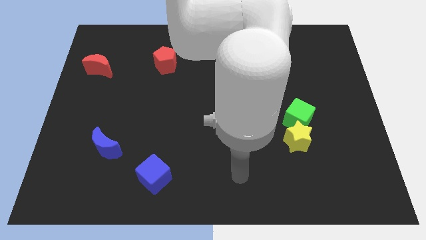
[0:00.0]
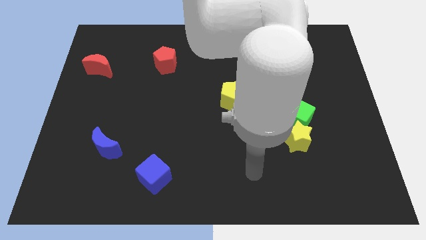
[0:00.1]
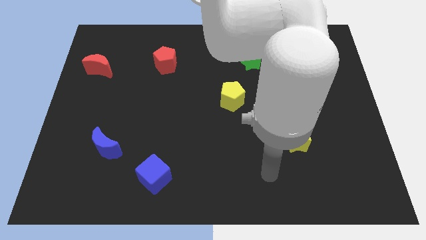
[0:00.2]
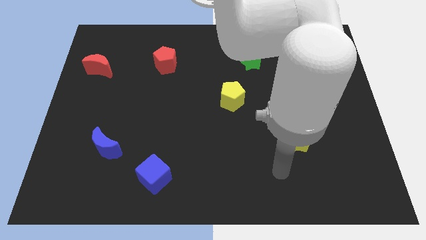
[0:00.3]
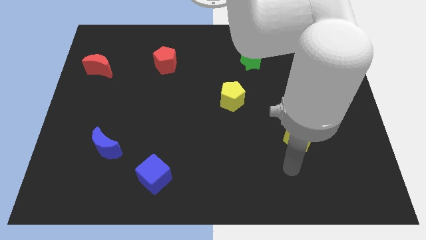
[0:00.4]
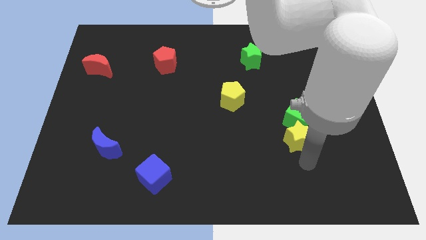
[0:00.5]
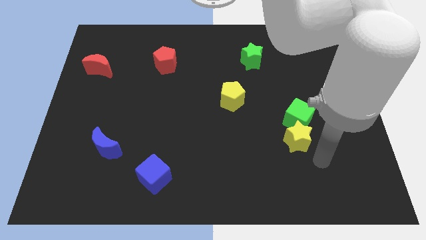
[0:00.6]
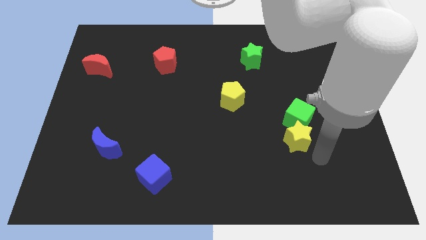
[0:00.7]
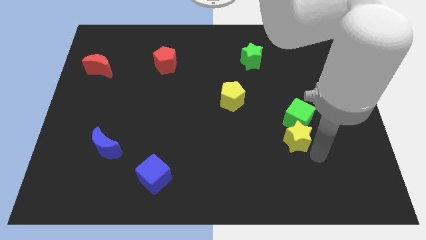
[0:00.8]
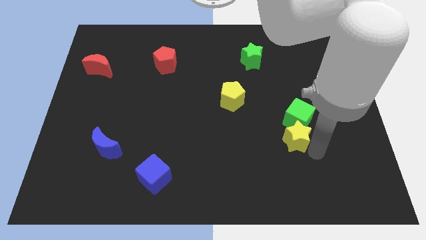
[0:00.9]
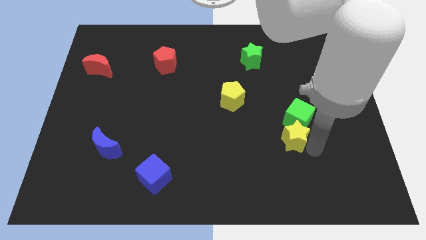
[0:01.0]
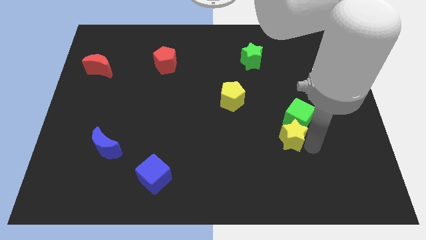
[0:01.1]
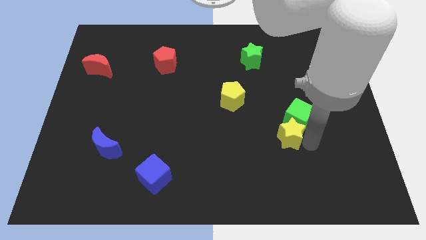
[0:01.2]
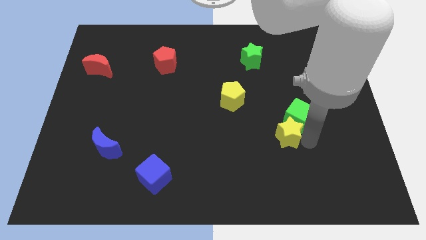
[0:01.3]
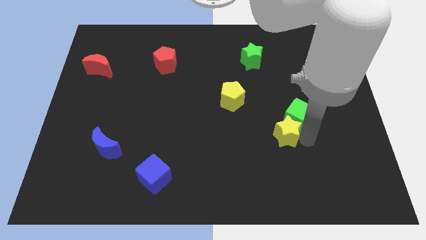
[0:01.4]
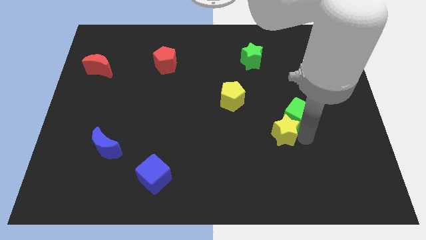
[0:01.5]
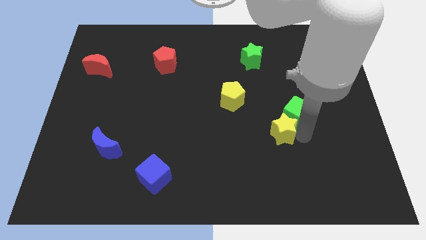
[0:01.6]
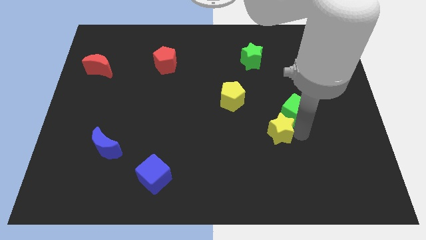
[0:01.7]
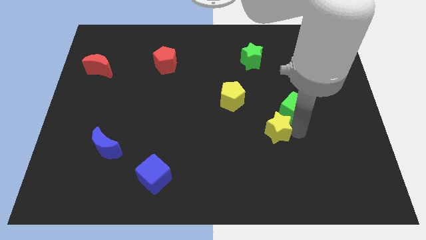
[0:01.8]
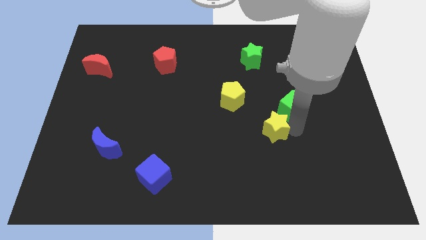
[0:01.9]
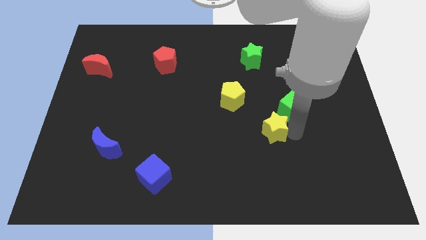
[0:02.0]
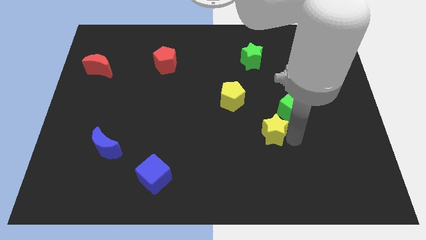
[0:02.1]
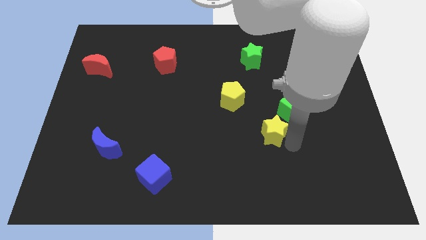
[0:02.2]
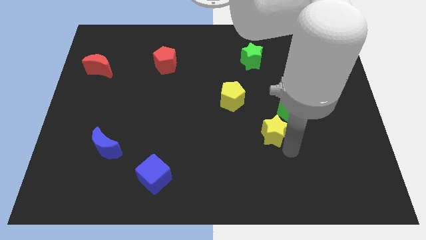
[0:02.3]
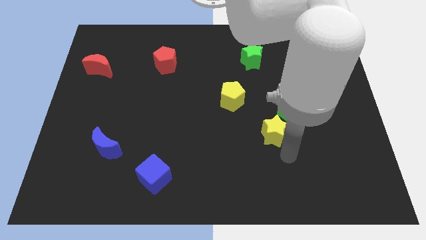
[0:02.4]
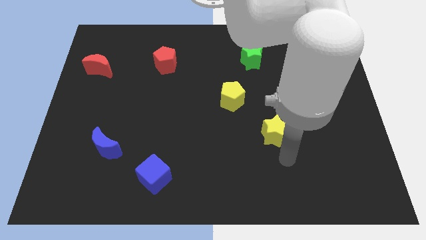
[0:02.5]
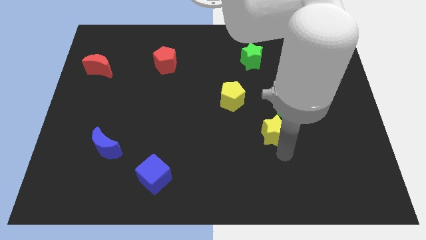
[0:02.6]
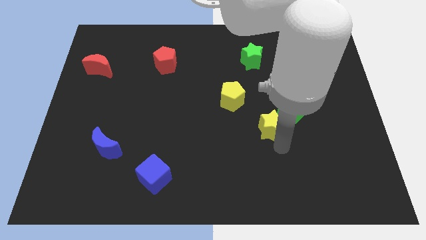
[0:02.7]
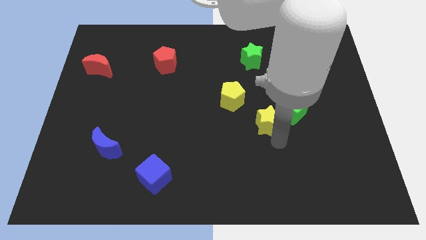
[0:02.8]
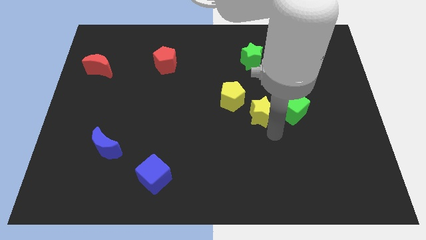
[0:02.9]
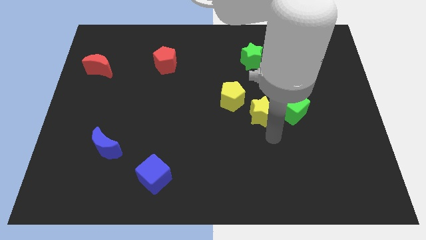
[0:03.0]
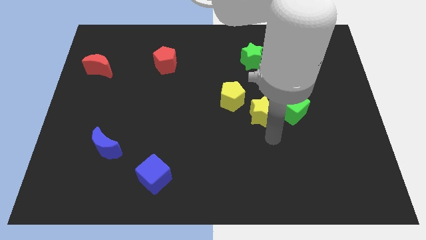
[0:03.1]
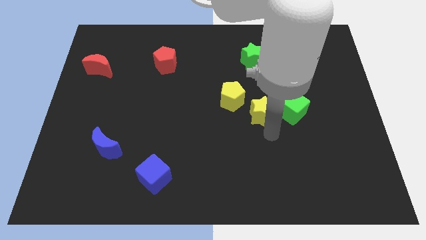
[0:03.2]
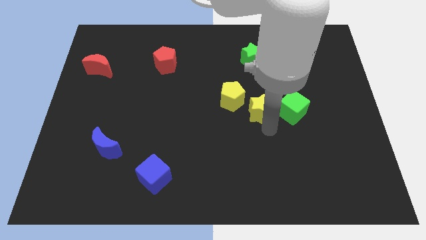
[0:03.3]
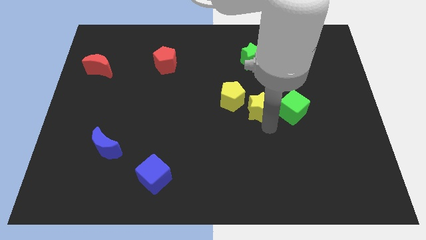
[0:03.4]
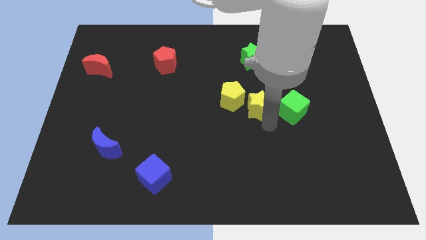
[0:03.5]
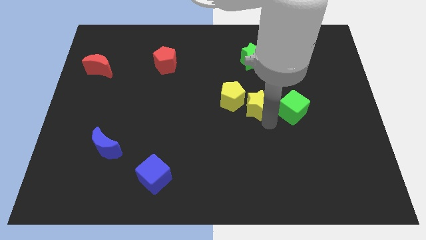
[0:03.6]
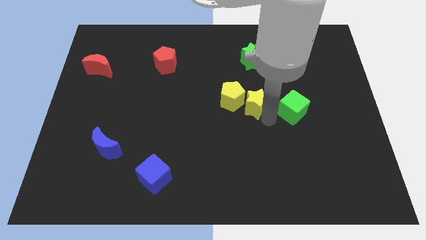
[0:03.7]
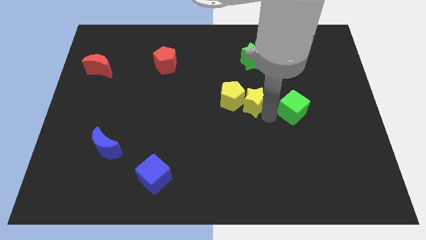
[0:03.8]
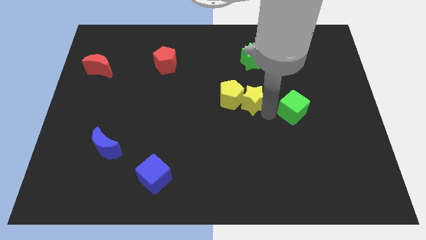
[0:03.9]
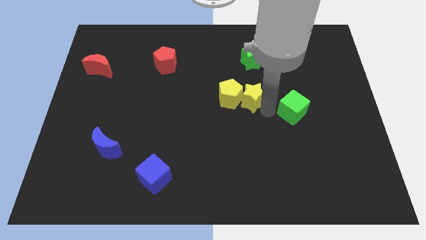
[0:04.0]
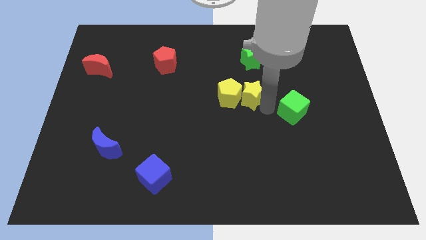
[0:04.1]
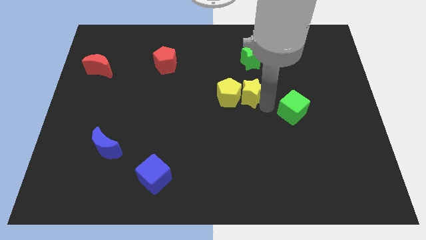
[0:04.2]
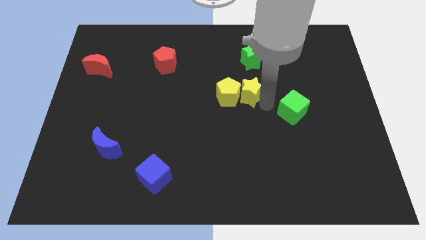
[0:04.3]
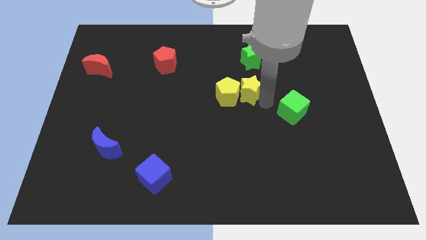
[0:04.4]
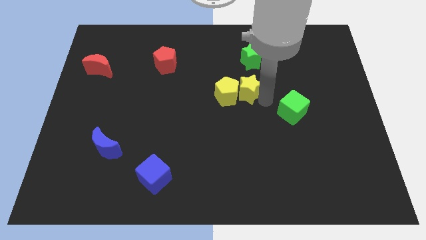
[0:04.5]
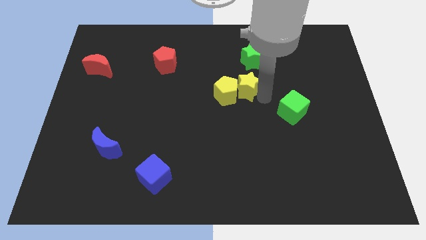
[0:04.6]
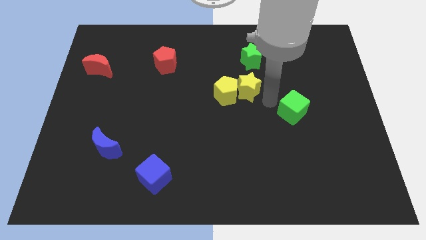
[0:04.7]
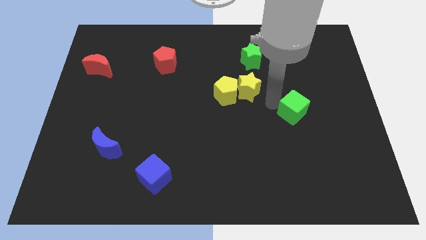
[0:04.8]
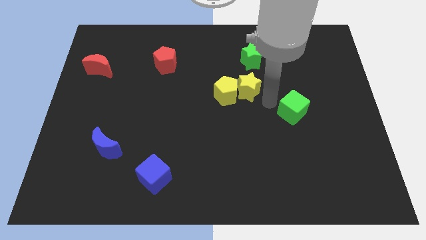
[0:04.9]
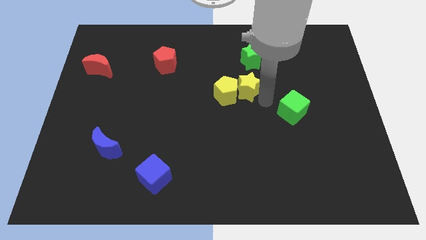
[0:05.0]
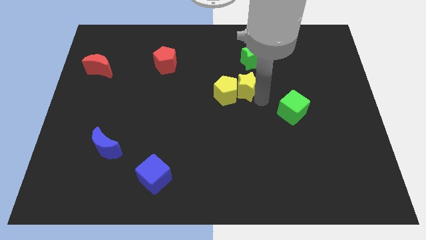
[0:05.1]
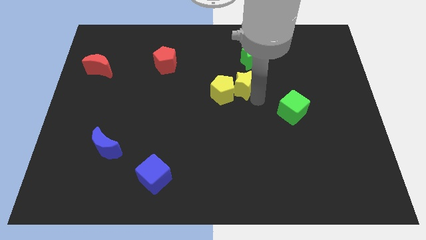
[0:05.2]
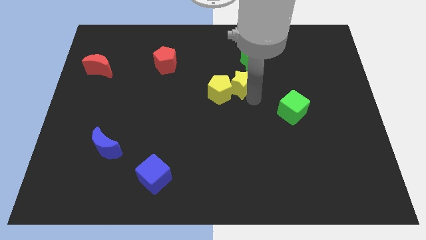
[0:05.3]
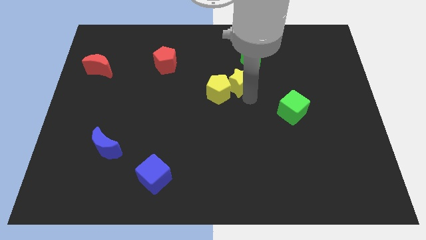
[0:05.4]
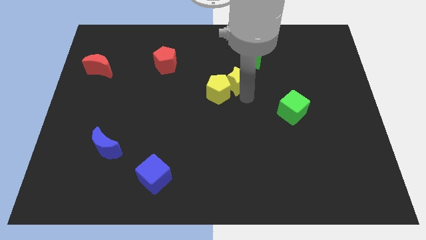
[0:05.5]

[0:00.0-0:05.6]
move the yellow star diagonally up and left

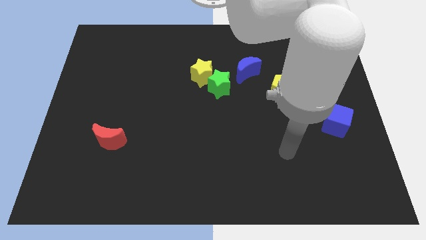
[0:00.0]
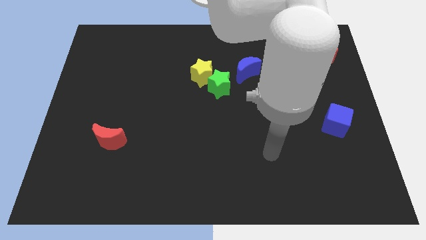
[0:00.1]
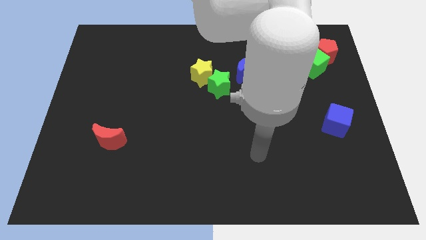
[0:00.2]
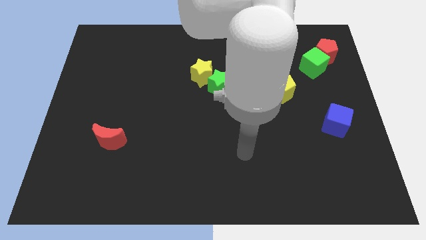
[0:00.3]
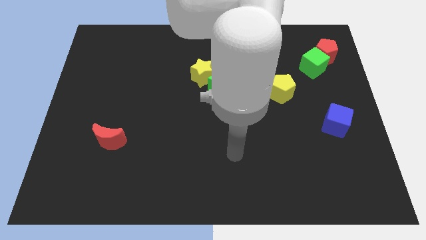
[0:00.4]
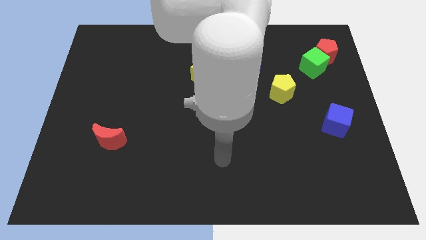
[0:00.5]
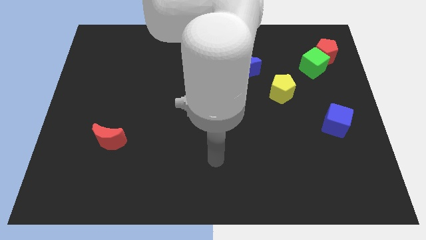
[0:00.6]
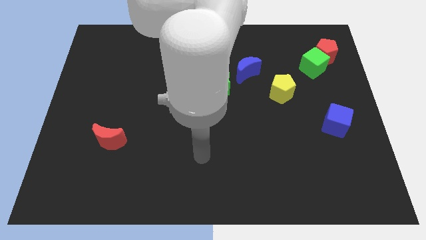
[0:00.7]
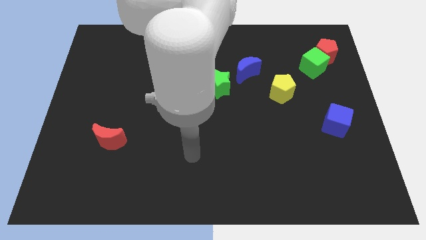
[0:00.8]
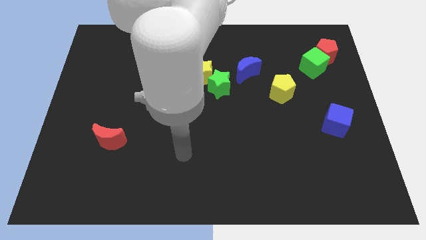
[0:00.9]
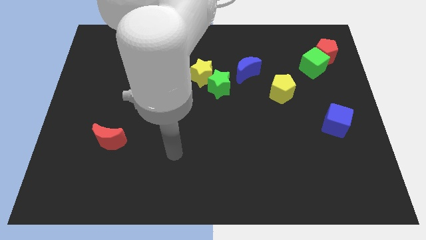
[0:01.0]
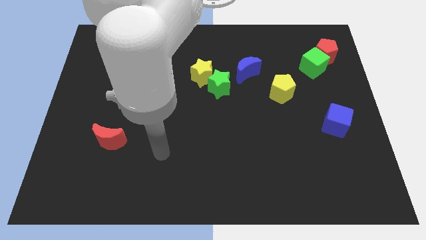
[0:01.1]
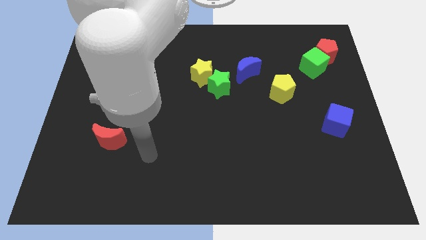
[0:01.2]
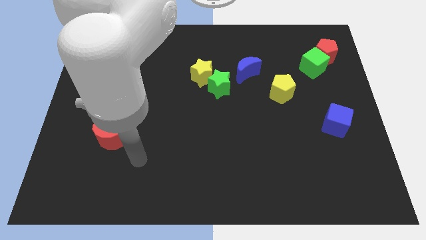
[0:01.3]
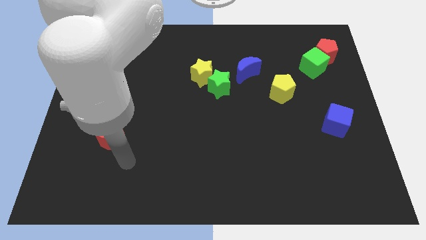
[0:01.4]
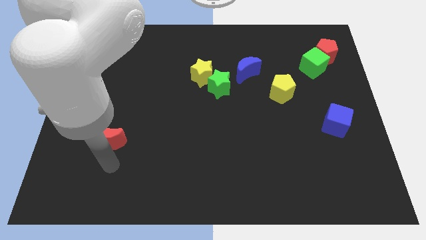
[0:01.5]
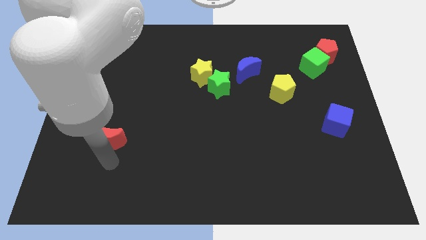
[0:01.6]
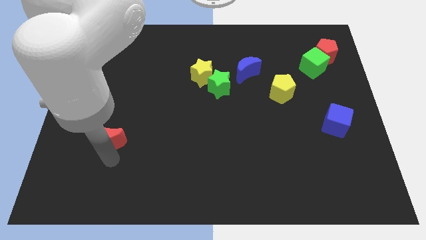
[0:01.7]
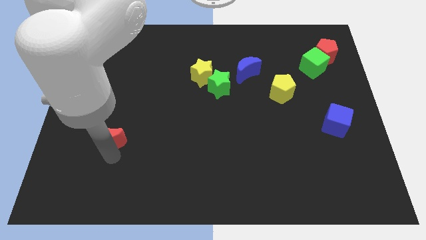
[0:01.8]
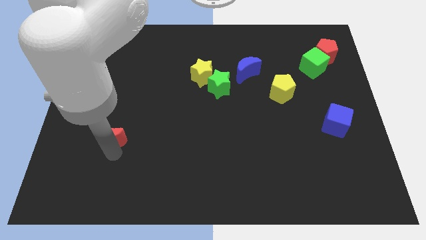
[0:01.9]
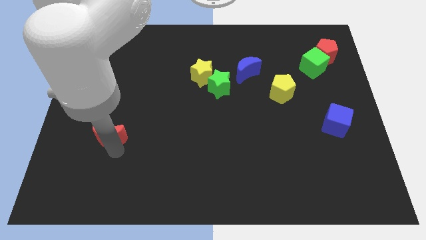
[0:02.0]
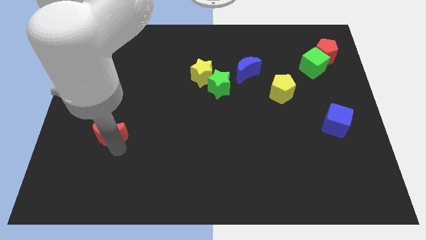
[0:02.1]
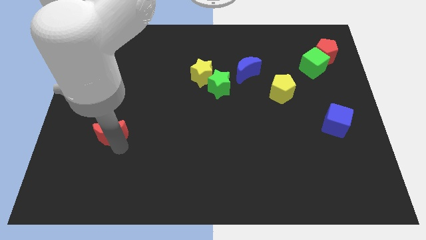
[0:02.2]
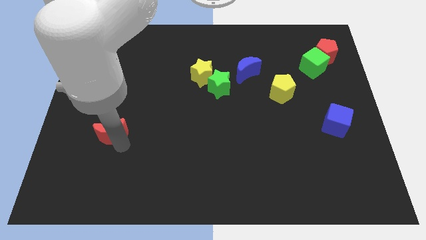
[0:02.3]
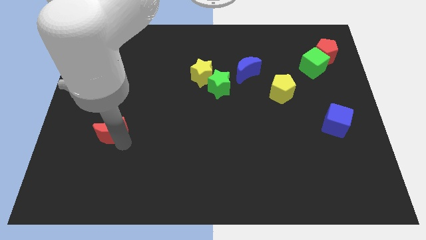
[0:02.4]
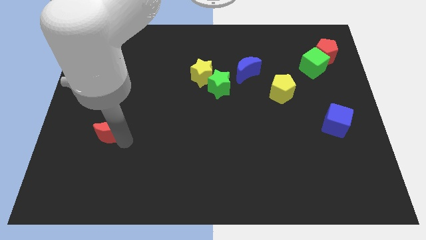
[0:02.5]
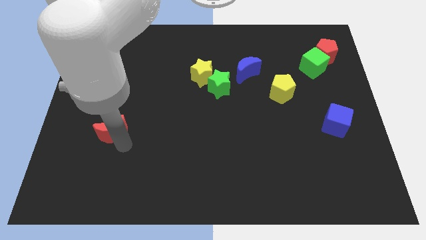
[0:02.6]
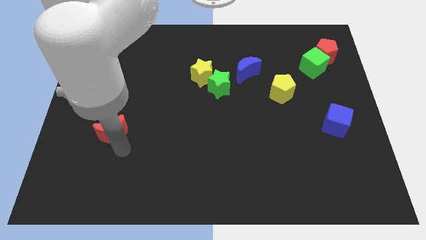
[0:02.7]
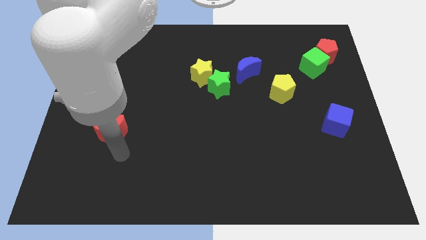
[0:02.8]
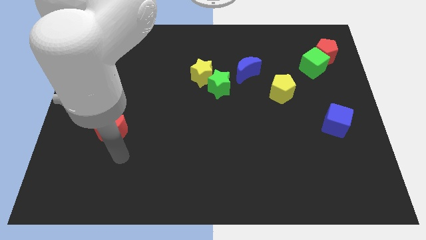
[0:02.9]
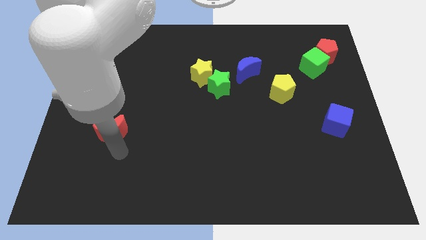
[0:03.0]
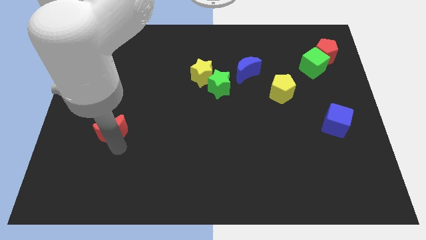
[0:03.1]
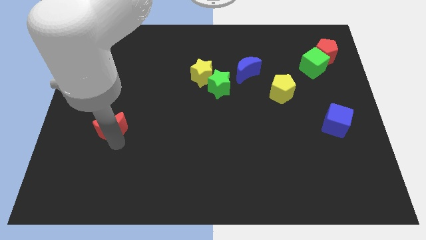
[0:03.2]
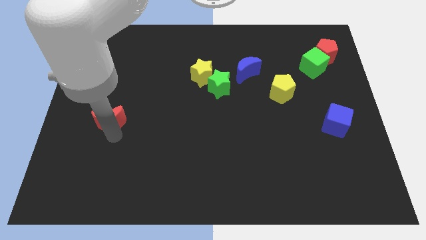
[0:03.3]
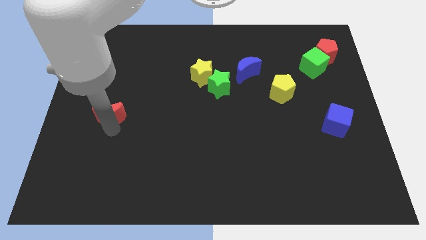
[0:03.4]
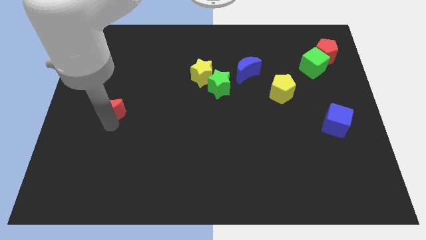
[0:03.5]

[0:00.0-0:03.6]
move the red moon up a little
